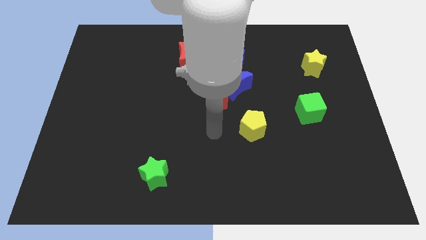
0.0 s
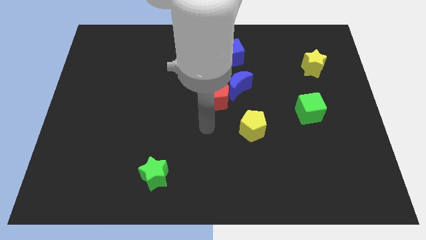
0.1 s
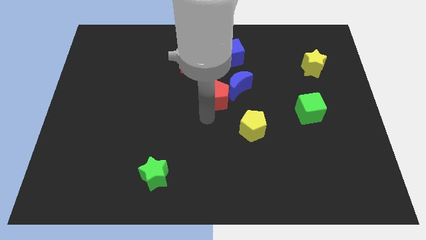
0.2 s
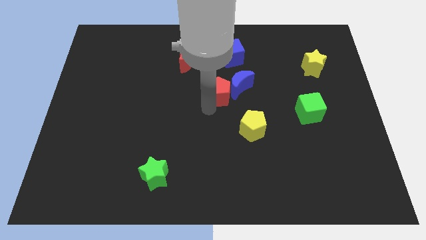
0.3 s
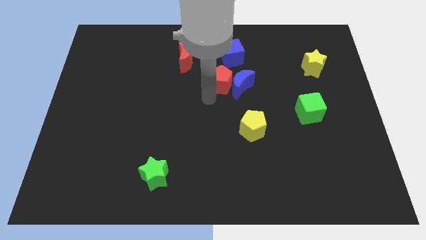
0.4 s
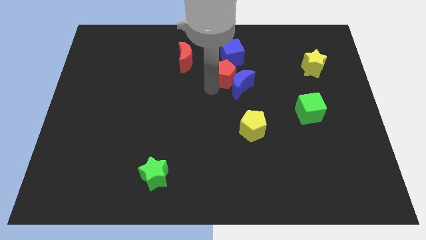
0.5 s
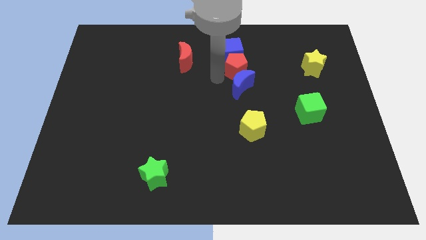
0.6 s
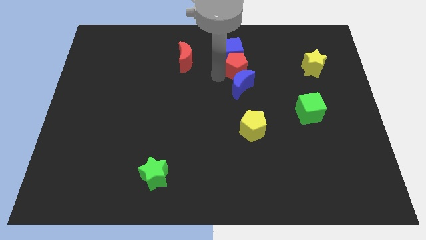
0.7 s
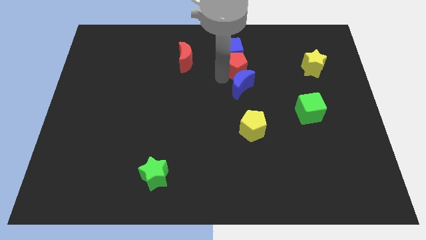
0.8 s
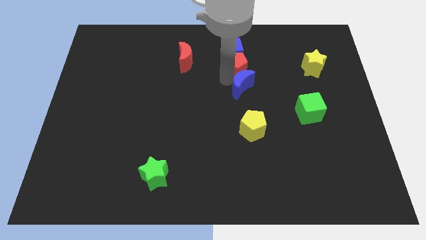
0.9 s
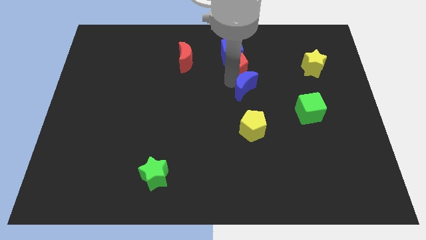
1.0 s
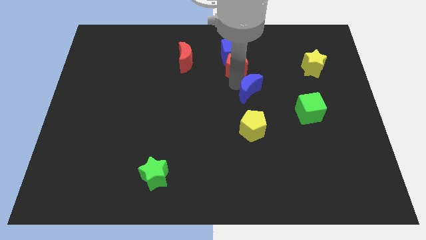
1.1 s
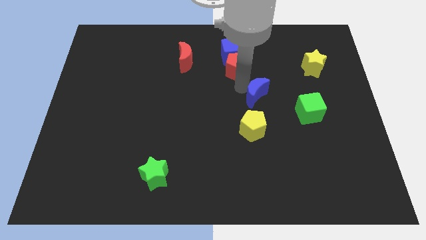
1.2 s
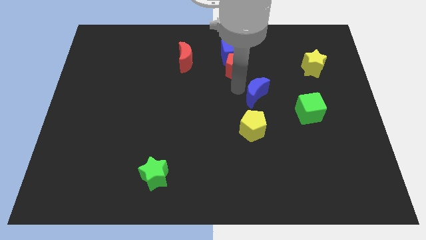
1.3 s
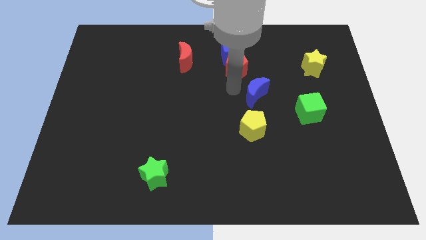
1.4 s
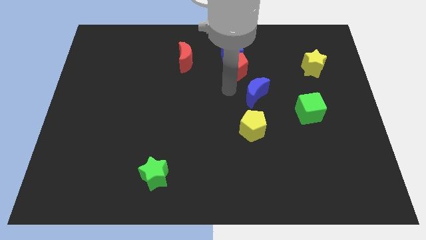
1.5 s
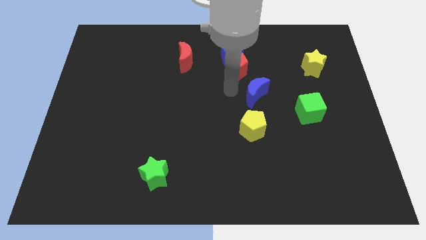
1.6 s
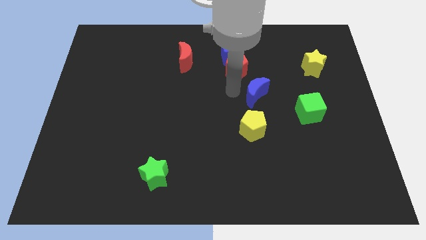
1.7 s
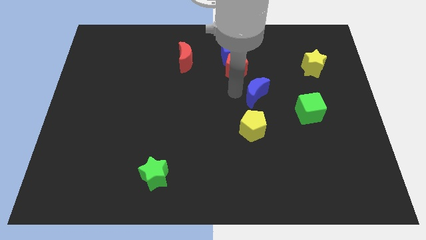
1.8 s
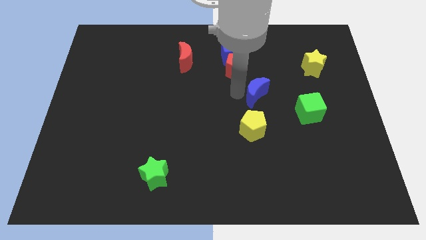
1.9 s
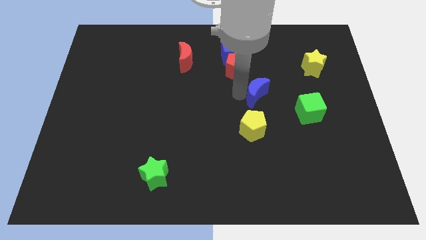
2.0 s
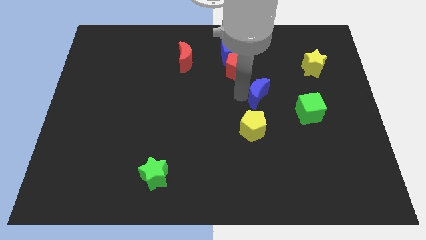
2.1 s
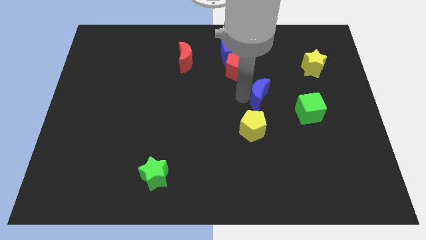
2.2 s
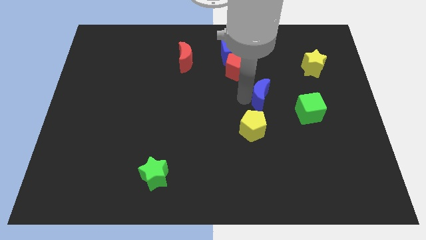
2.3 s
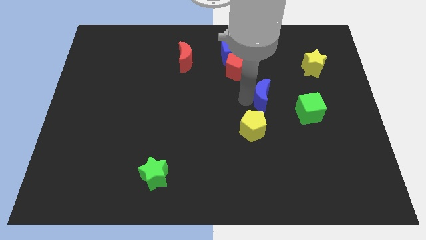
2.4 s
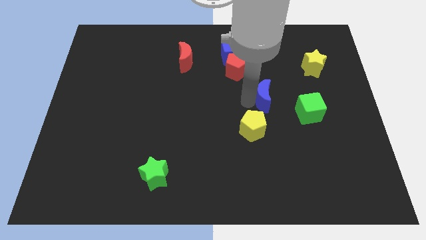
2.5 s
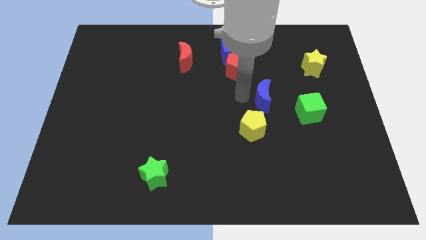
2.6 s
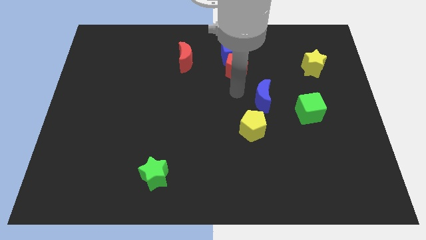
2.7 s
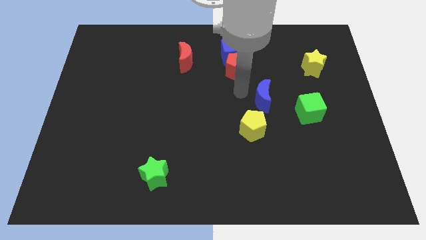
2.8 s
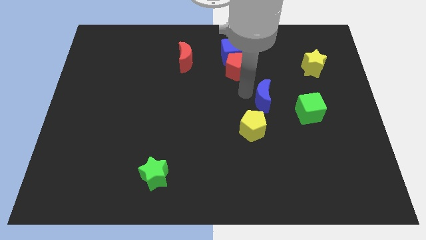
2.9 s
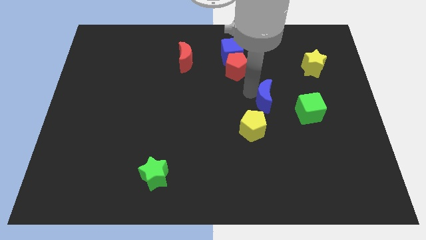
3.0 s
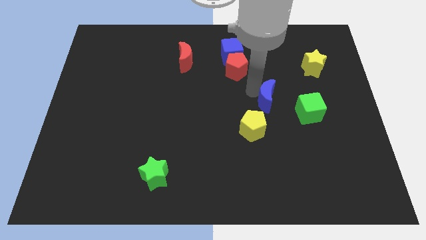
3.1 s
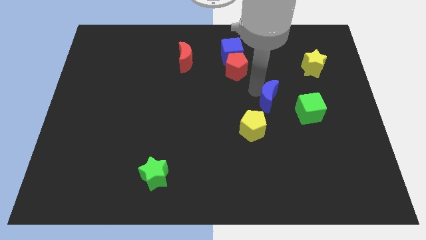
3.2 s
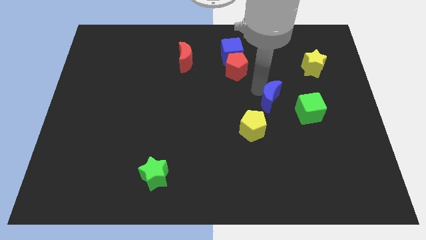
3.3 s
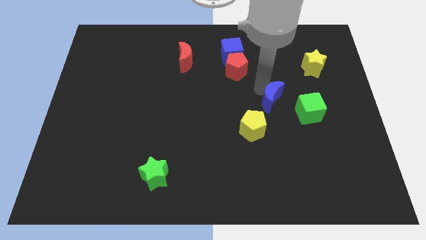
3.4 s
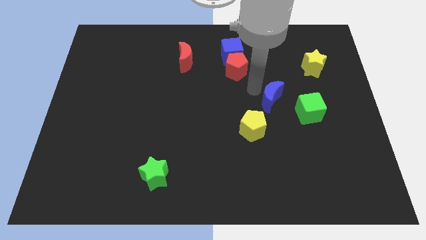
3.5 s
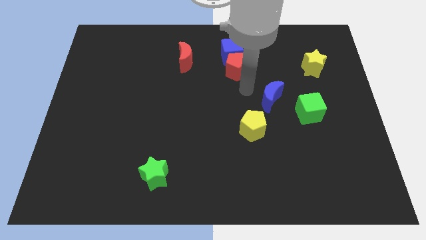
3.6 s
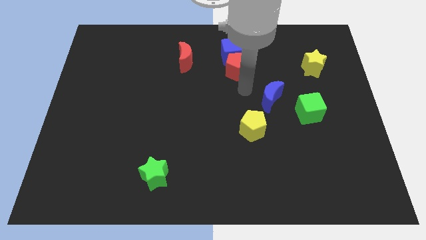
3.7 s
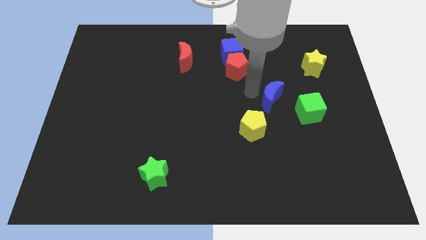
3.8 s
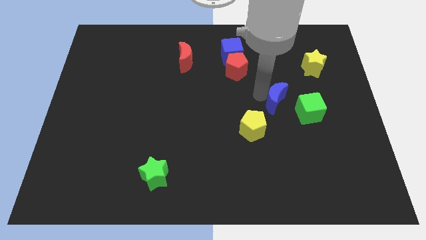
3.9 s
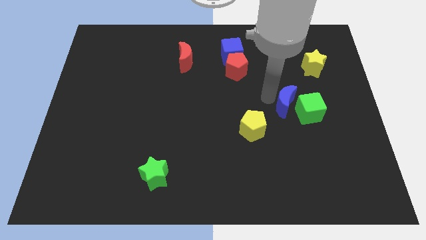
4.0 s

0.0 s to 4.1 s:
move the blue moon next to the green cube

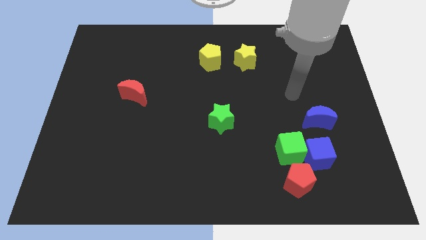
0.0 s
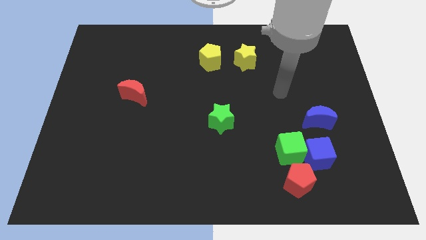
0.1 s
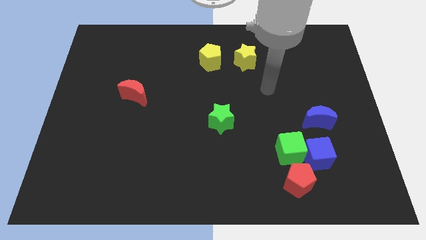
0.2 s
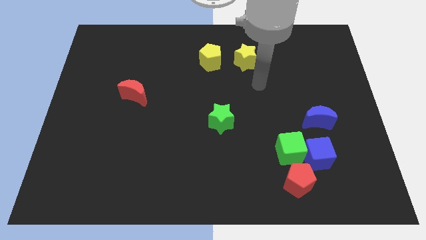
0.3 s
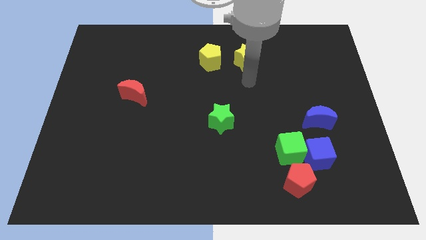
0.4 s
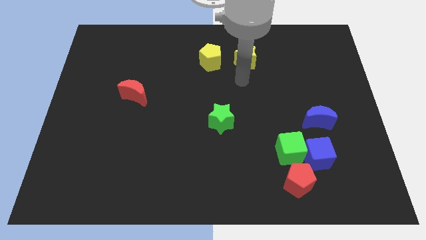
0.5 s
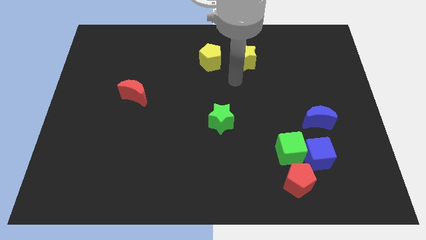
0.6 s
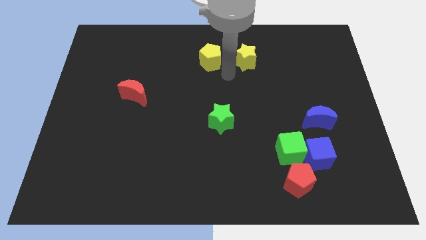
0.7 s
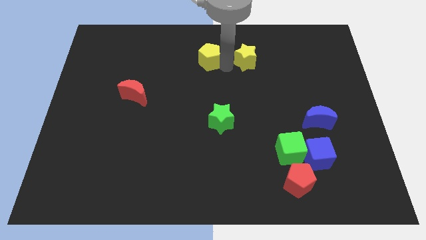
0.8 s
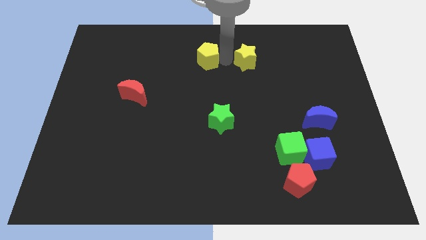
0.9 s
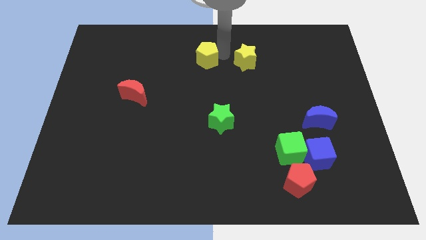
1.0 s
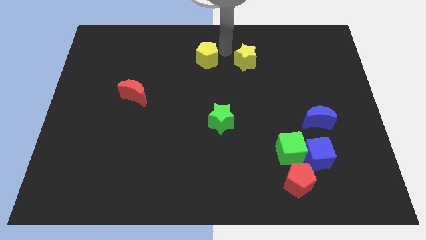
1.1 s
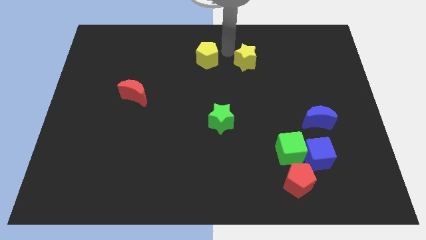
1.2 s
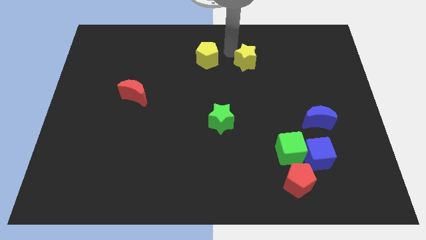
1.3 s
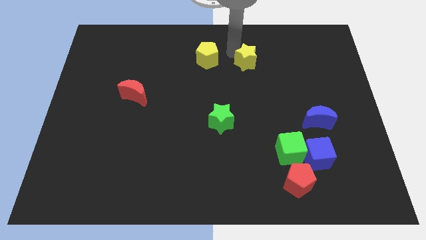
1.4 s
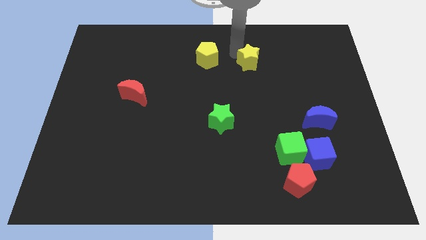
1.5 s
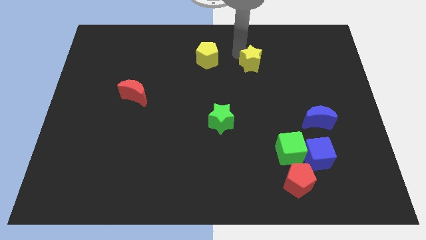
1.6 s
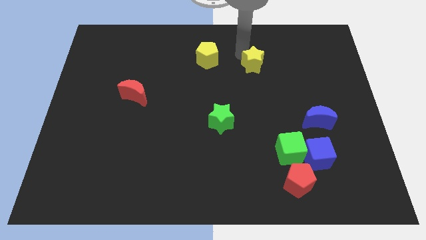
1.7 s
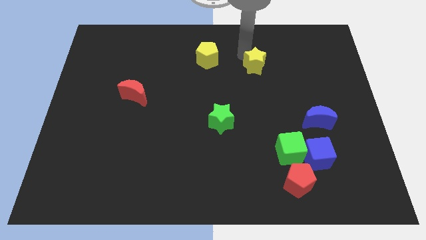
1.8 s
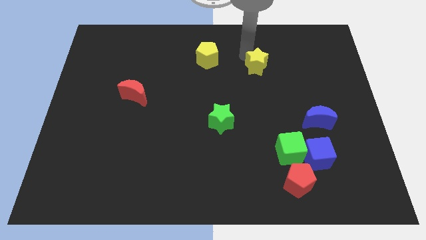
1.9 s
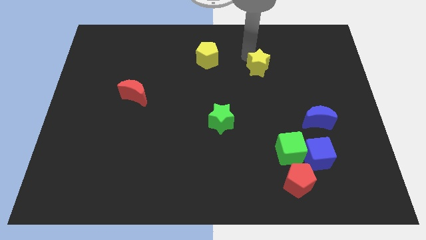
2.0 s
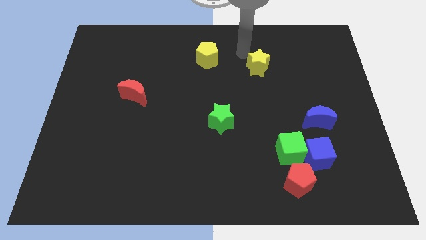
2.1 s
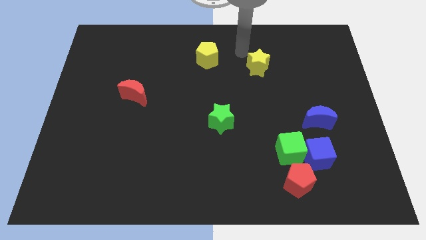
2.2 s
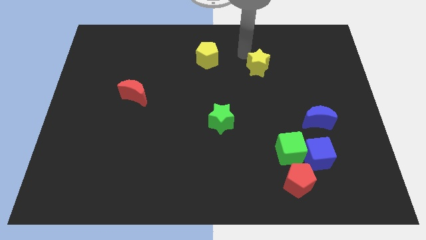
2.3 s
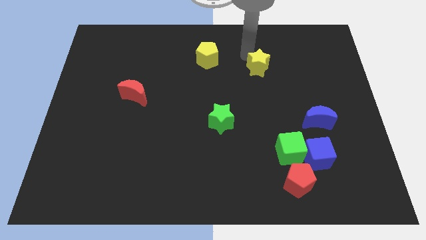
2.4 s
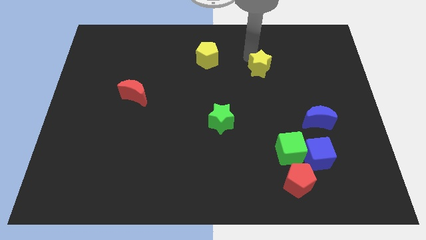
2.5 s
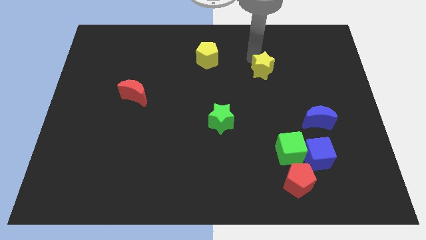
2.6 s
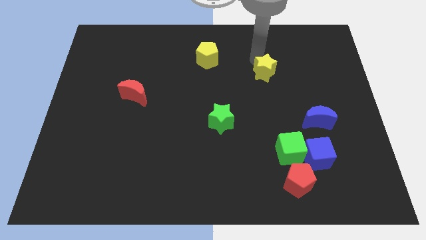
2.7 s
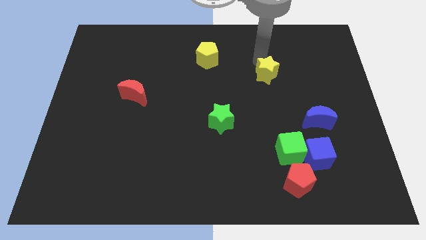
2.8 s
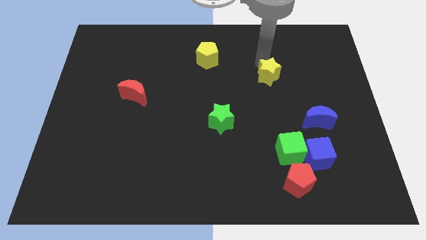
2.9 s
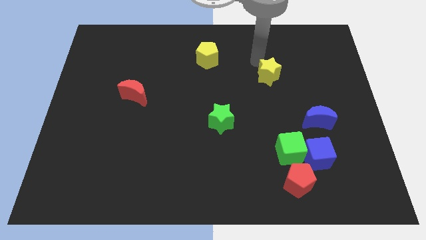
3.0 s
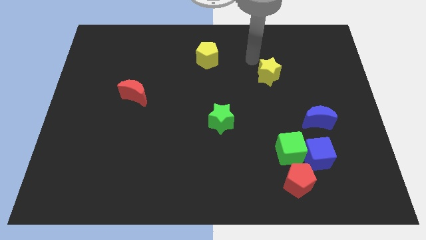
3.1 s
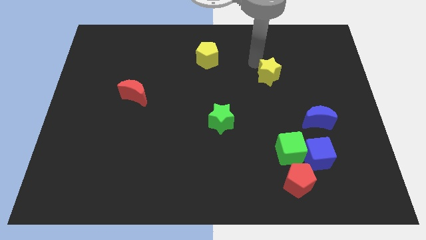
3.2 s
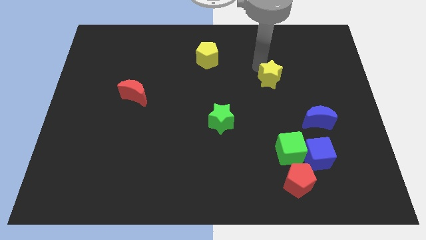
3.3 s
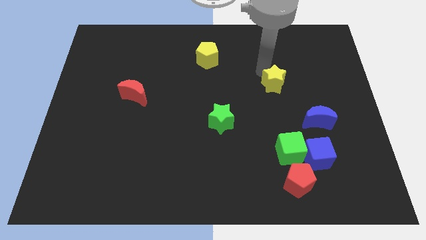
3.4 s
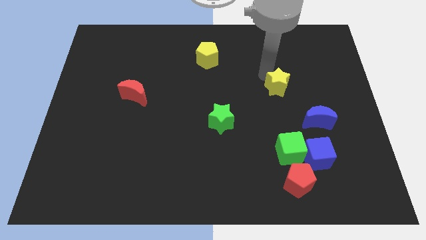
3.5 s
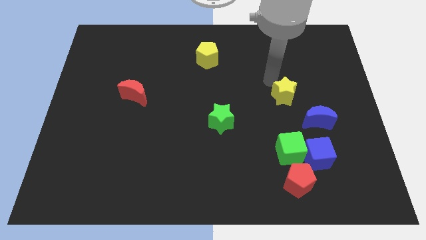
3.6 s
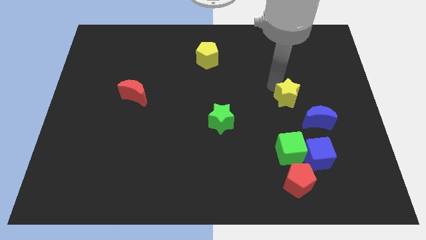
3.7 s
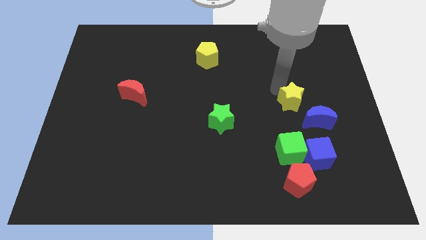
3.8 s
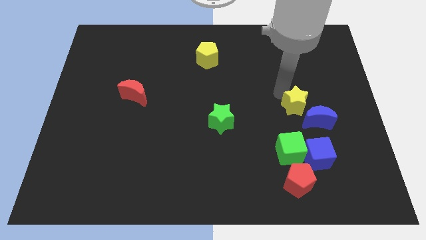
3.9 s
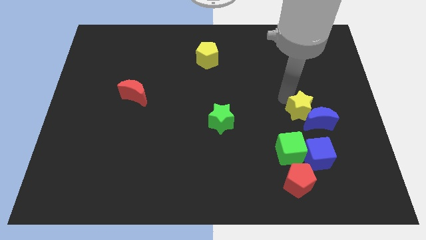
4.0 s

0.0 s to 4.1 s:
put the yellow star to the blue moon
